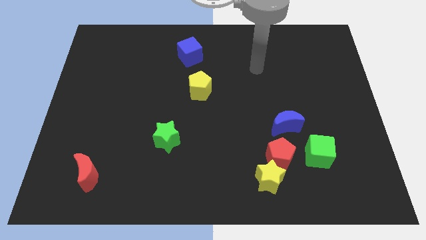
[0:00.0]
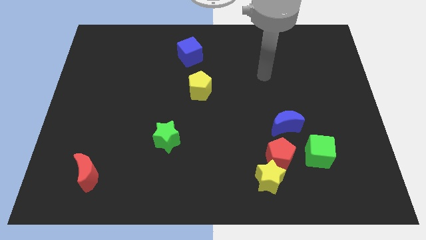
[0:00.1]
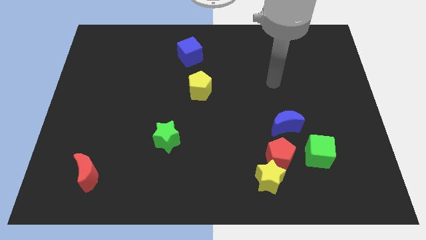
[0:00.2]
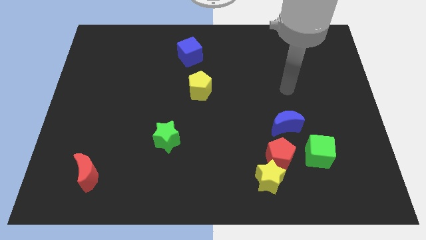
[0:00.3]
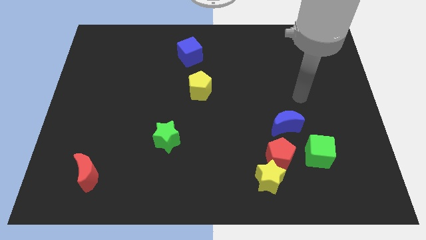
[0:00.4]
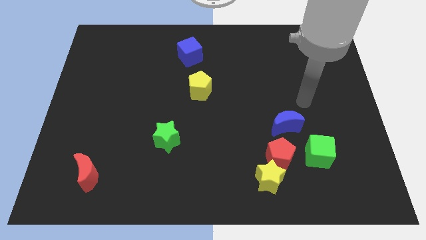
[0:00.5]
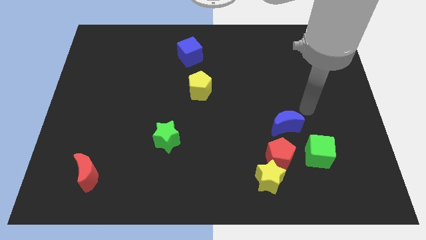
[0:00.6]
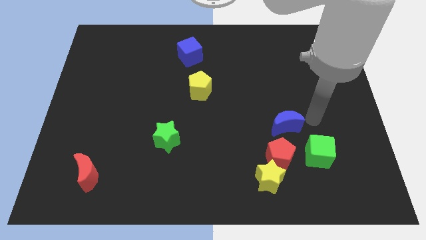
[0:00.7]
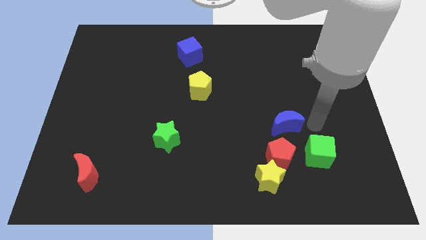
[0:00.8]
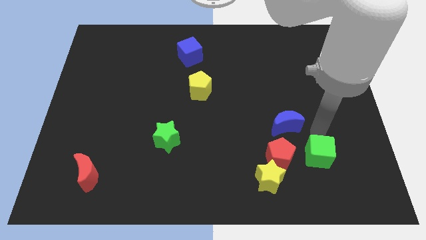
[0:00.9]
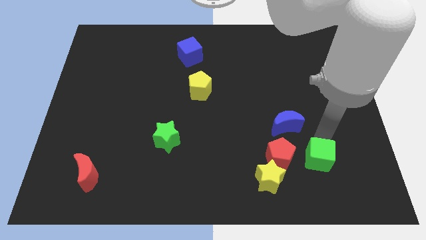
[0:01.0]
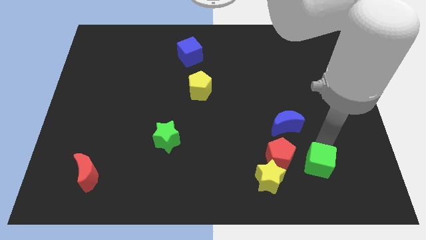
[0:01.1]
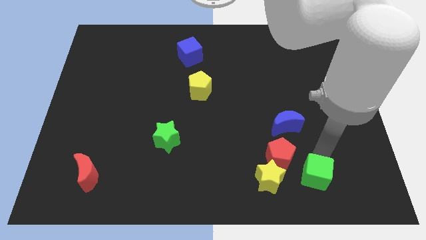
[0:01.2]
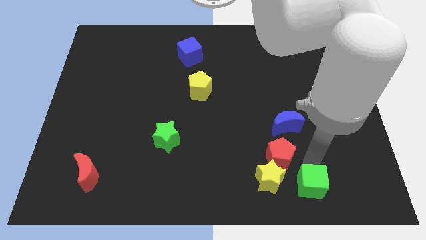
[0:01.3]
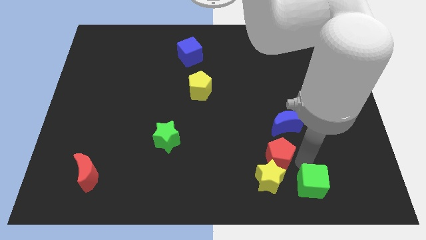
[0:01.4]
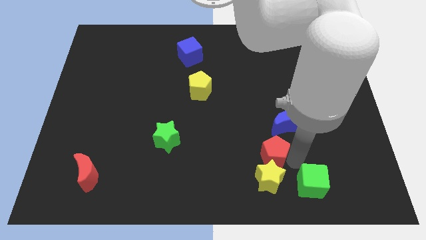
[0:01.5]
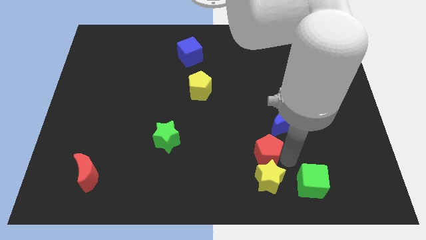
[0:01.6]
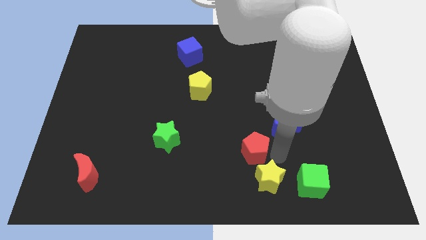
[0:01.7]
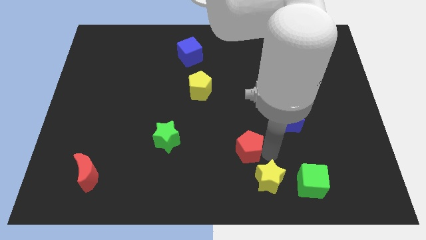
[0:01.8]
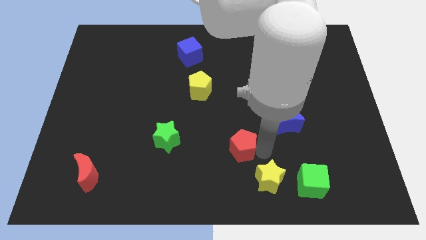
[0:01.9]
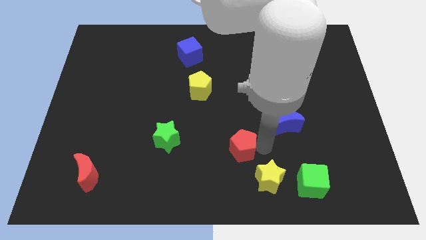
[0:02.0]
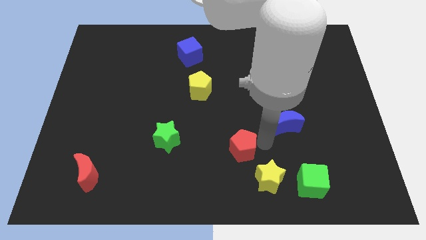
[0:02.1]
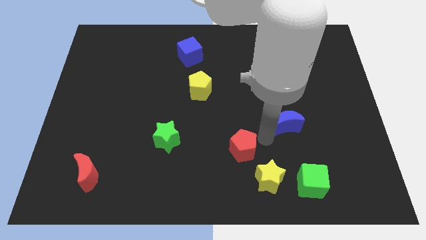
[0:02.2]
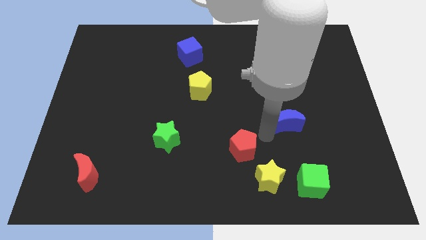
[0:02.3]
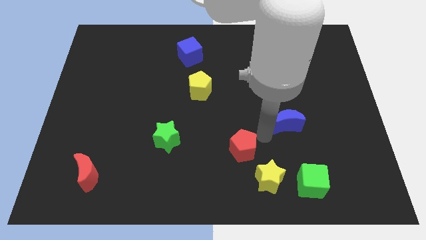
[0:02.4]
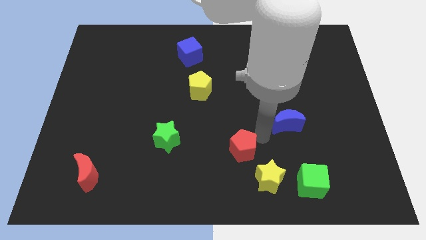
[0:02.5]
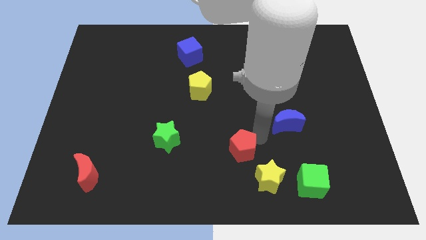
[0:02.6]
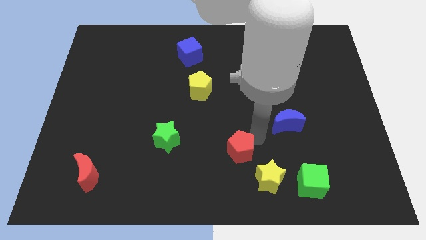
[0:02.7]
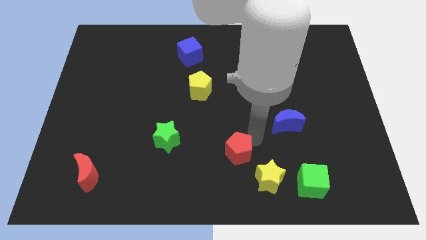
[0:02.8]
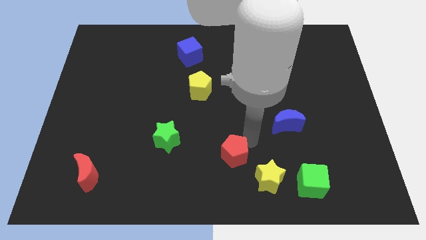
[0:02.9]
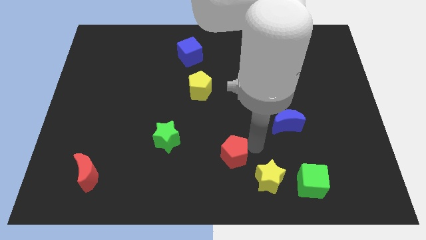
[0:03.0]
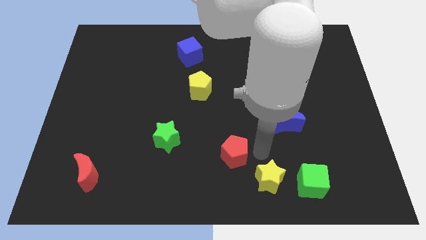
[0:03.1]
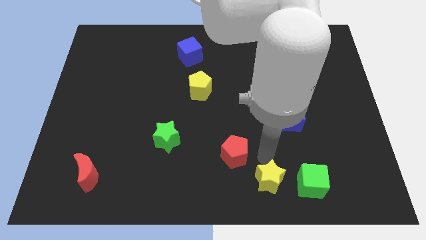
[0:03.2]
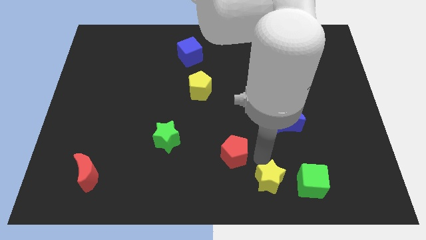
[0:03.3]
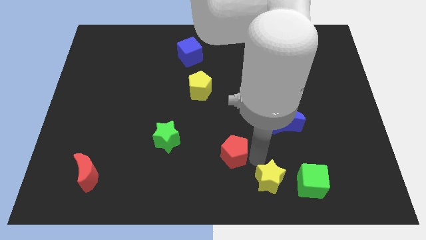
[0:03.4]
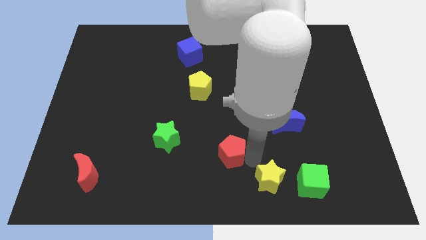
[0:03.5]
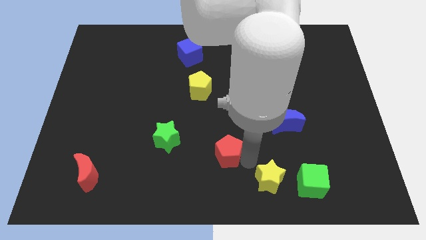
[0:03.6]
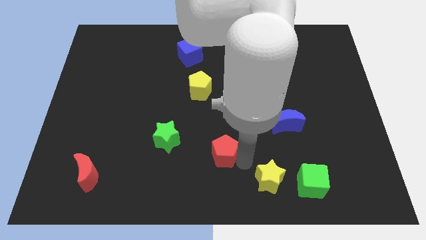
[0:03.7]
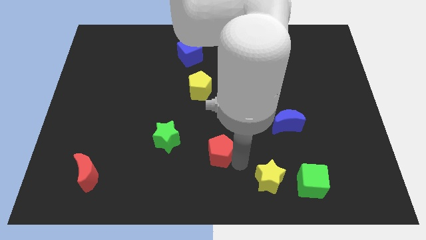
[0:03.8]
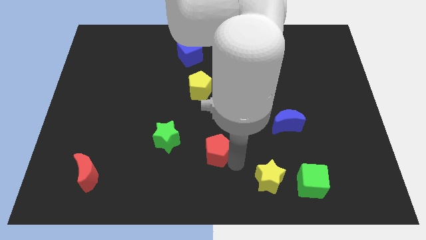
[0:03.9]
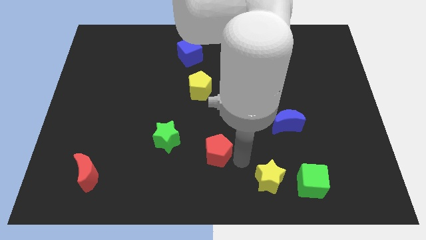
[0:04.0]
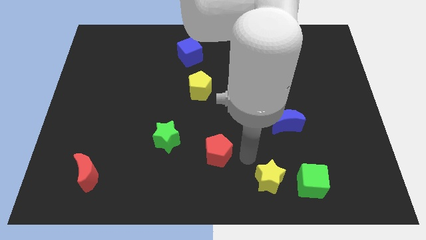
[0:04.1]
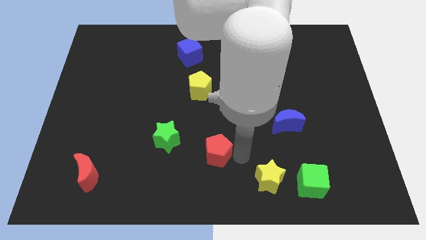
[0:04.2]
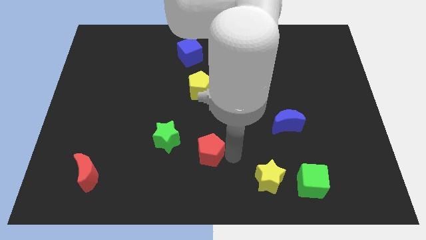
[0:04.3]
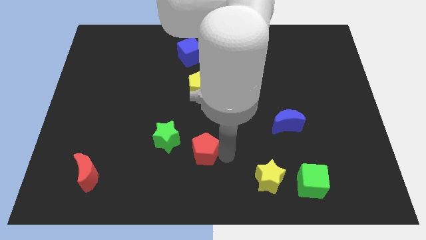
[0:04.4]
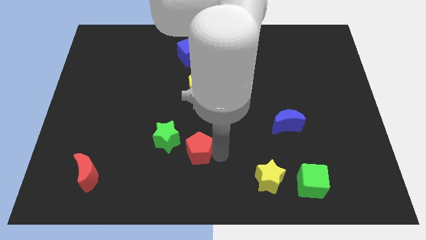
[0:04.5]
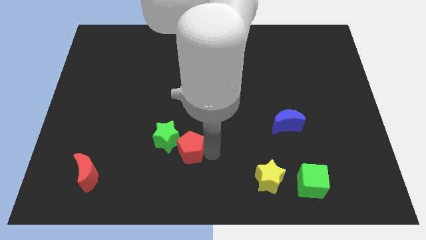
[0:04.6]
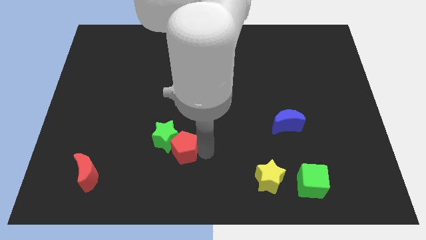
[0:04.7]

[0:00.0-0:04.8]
push the red pentagon left

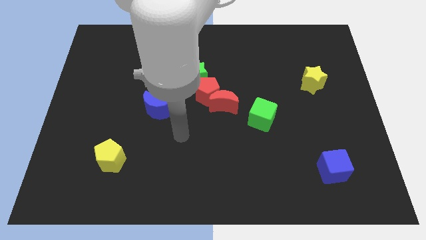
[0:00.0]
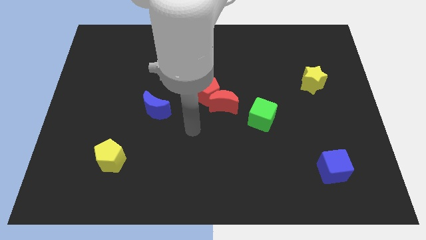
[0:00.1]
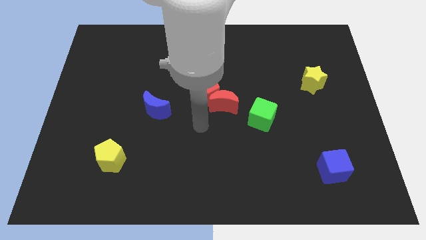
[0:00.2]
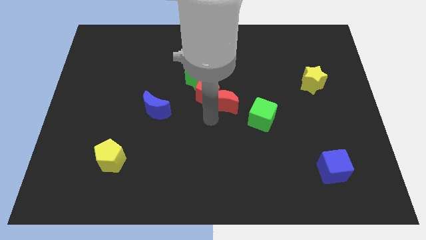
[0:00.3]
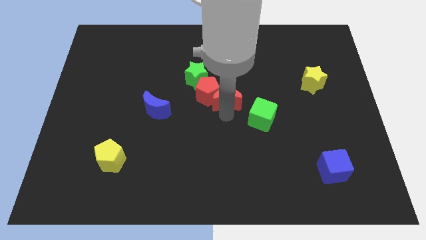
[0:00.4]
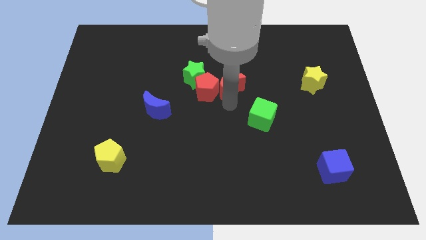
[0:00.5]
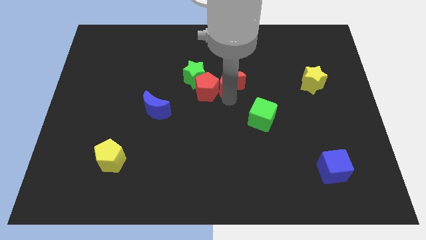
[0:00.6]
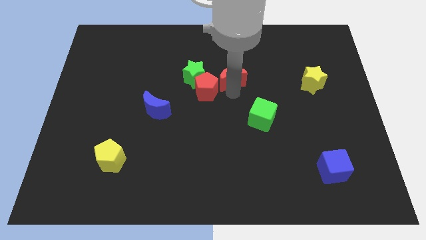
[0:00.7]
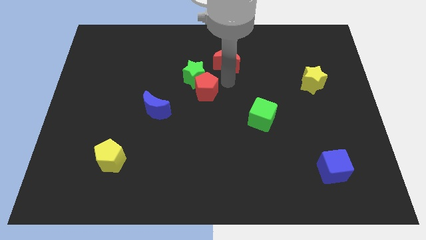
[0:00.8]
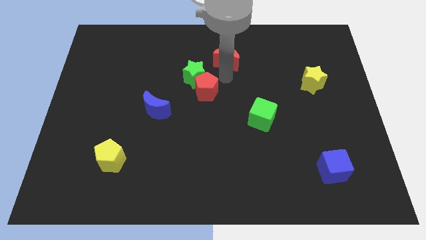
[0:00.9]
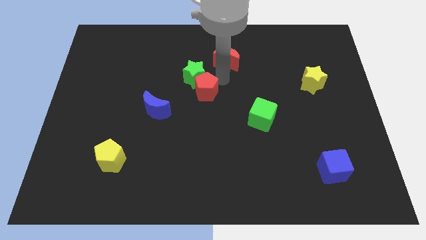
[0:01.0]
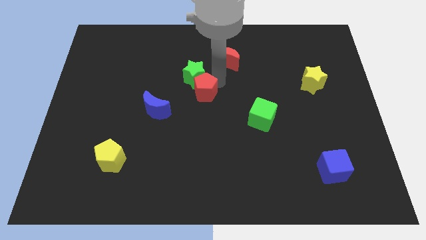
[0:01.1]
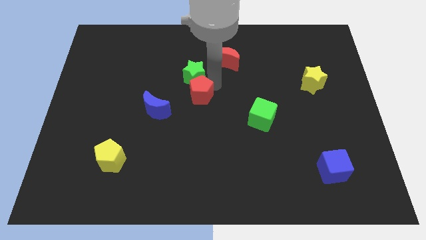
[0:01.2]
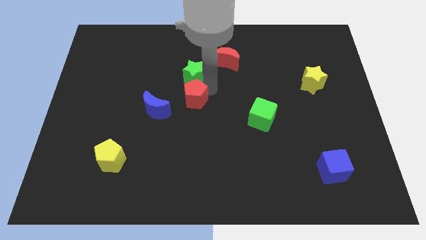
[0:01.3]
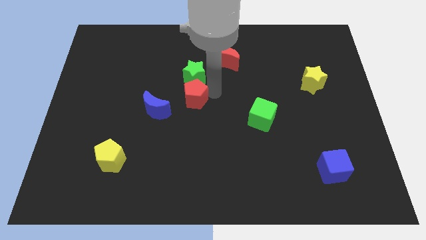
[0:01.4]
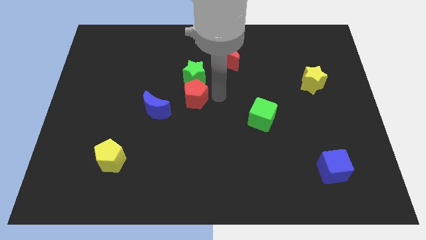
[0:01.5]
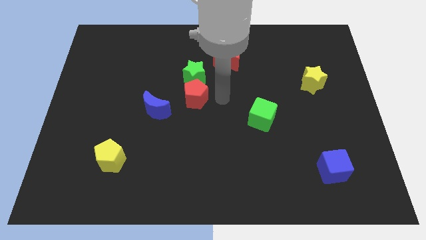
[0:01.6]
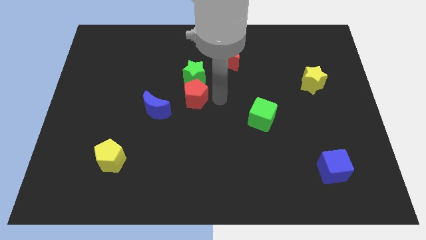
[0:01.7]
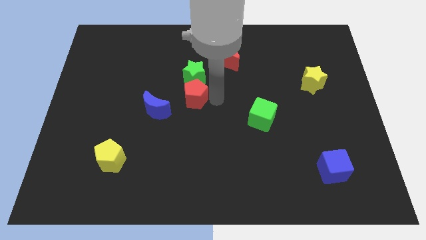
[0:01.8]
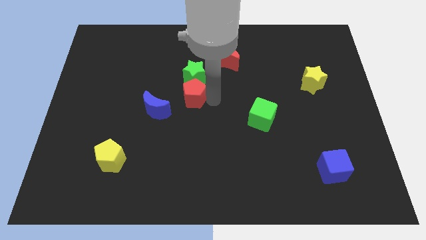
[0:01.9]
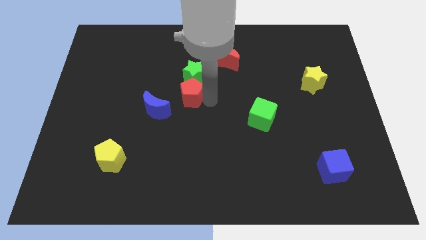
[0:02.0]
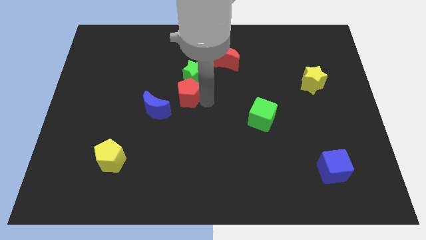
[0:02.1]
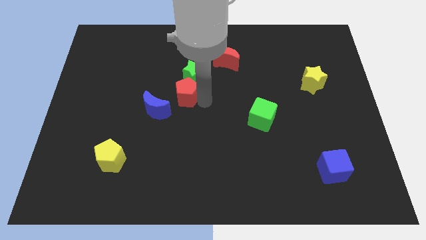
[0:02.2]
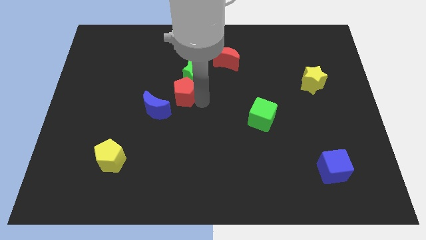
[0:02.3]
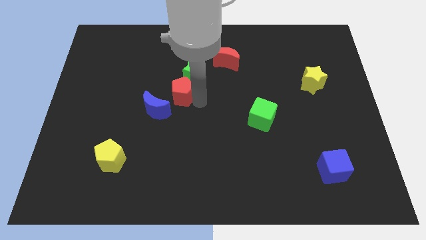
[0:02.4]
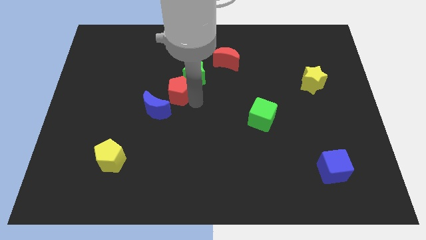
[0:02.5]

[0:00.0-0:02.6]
push the red pentagon a bit to the left

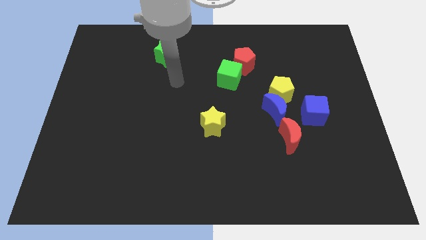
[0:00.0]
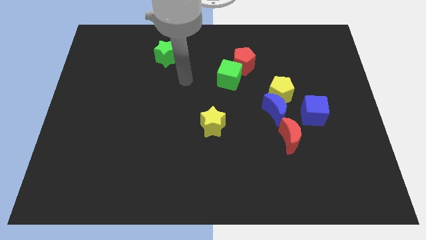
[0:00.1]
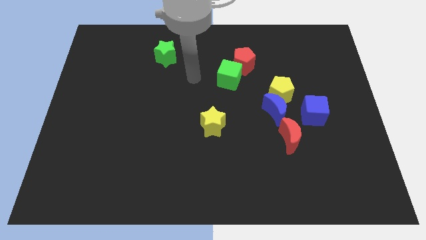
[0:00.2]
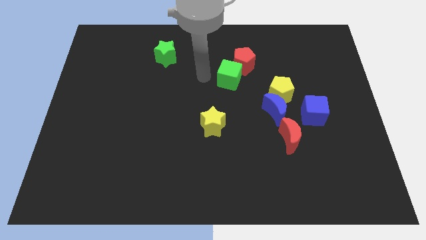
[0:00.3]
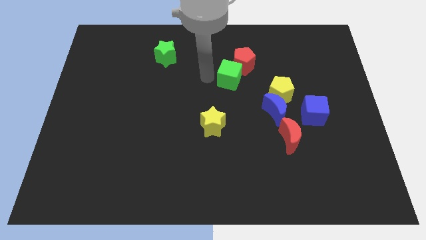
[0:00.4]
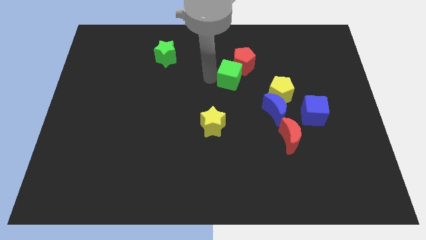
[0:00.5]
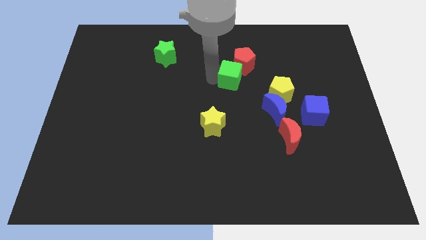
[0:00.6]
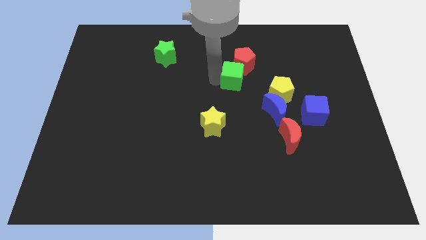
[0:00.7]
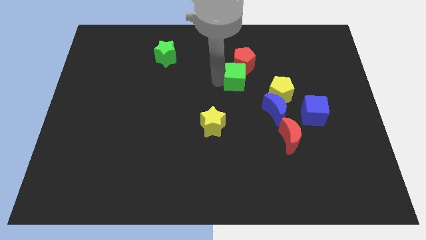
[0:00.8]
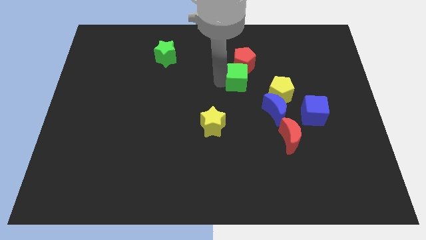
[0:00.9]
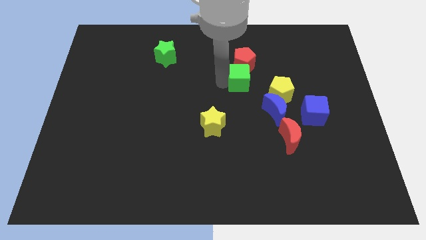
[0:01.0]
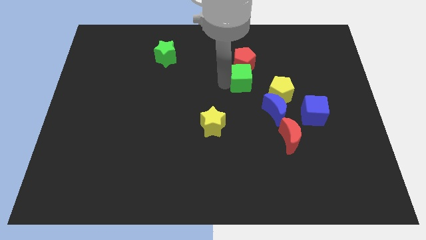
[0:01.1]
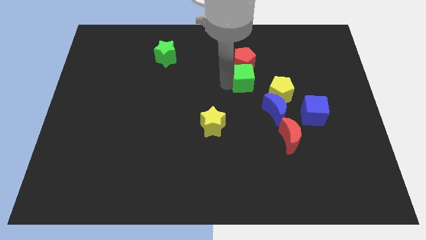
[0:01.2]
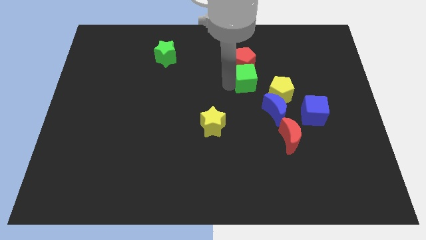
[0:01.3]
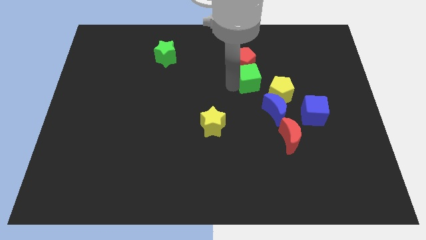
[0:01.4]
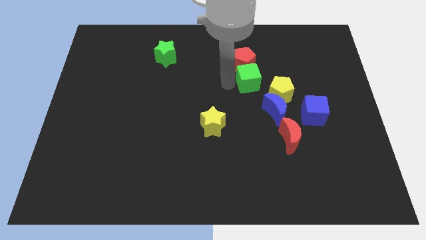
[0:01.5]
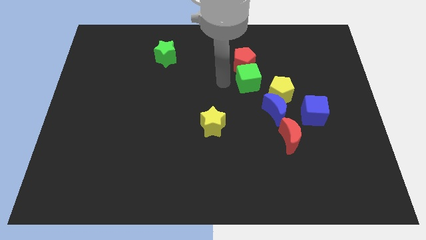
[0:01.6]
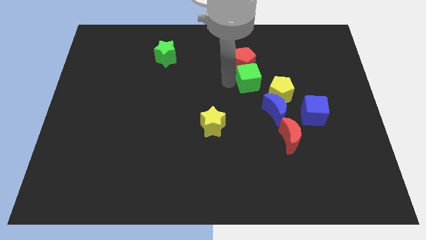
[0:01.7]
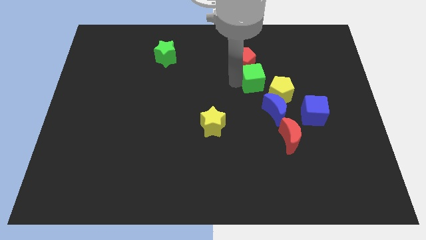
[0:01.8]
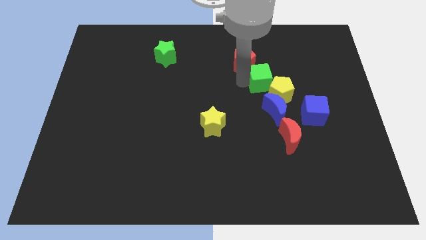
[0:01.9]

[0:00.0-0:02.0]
slightly move the green cube to the right
